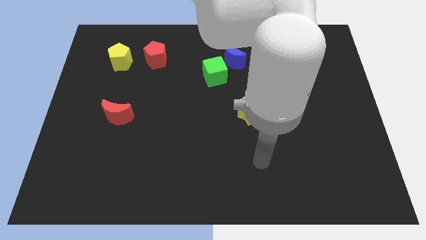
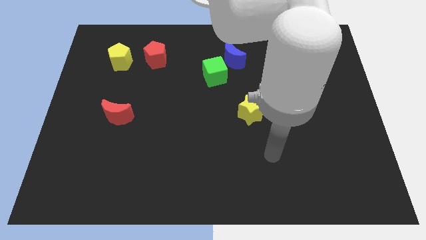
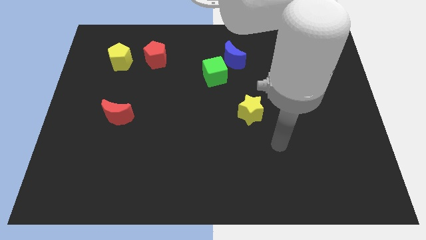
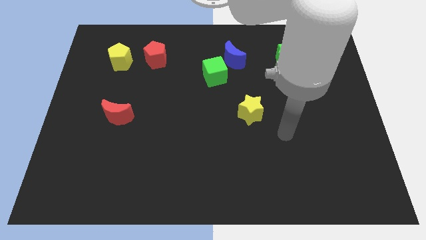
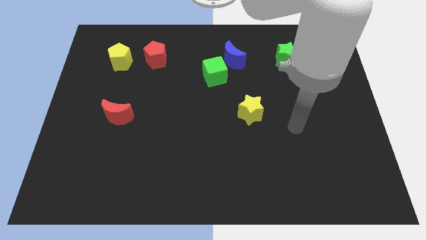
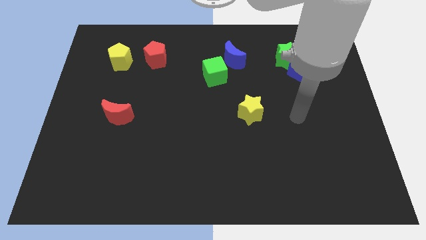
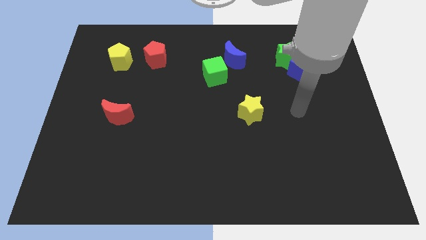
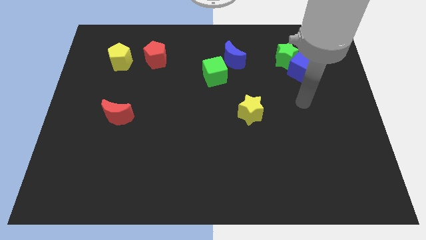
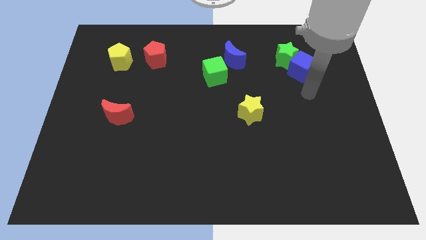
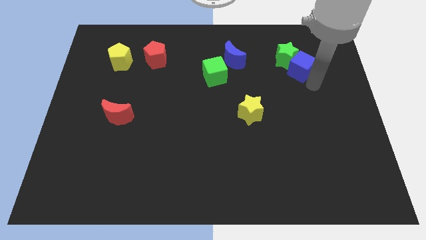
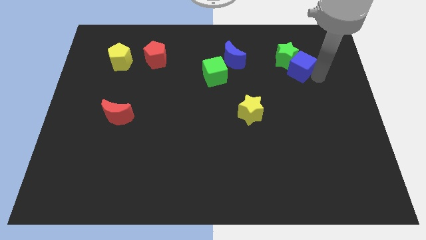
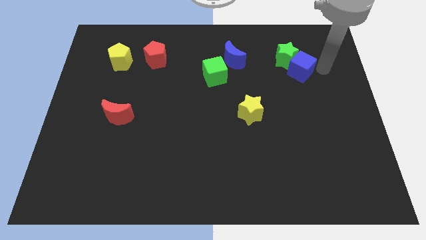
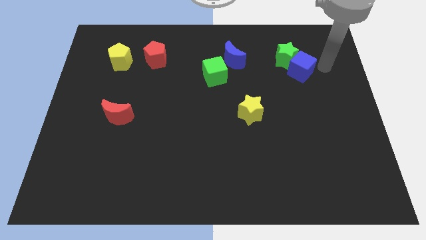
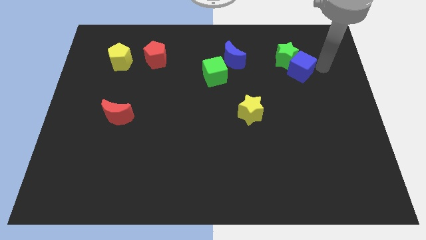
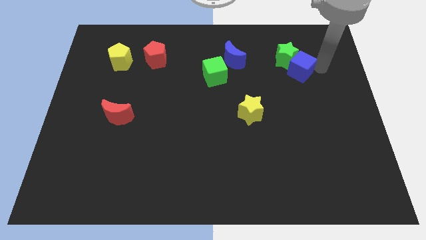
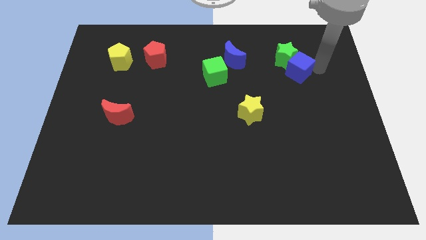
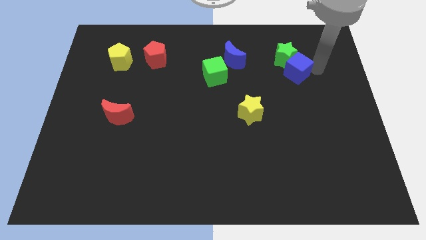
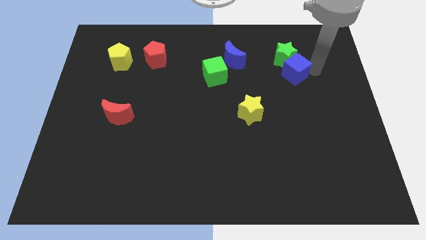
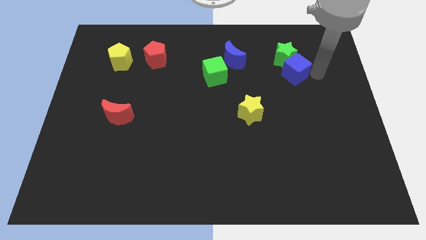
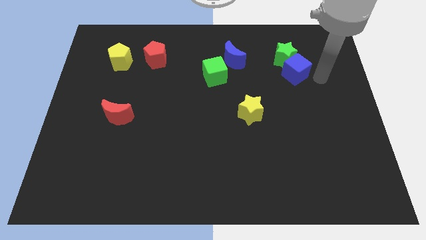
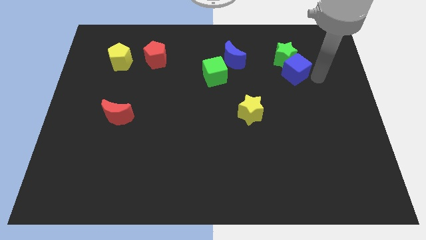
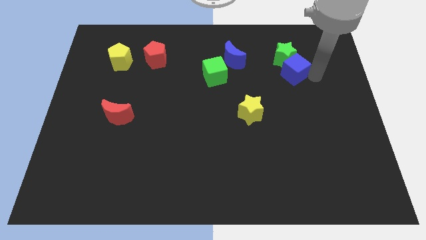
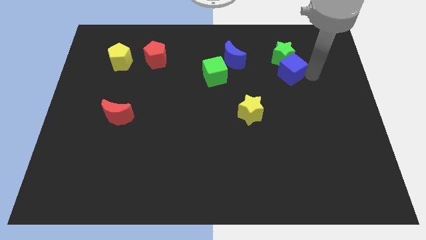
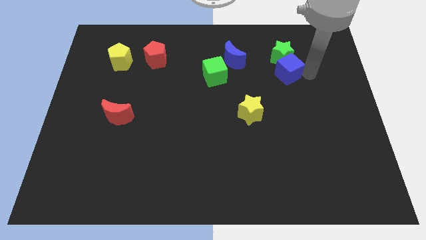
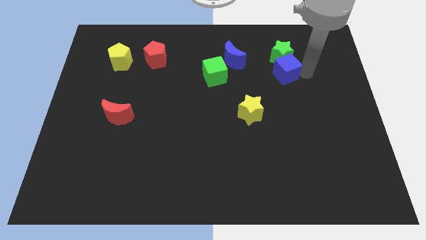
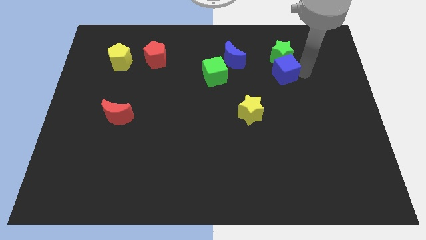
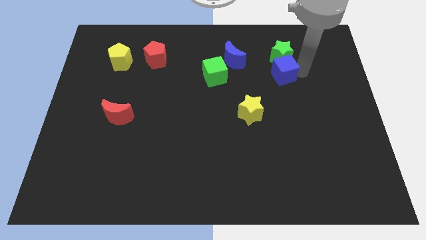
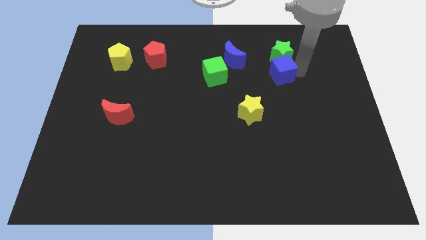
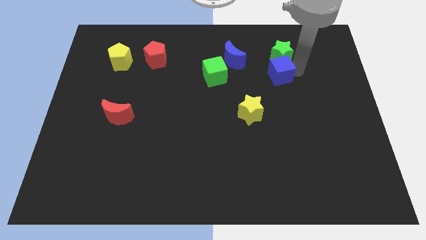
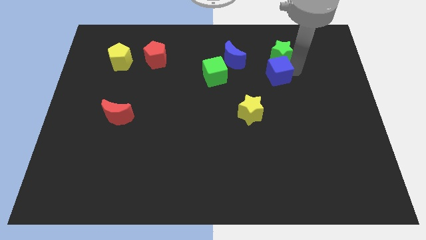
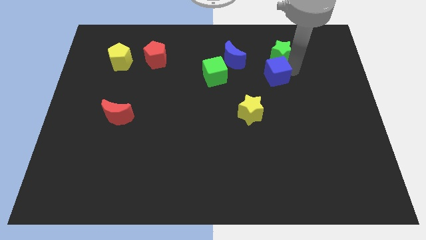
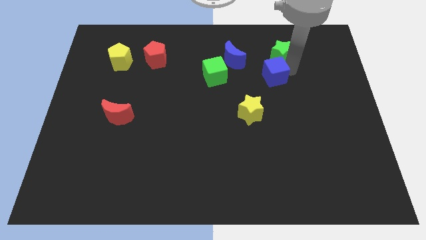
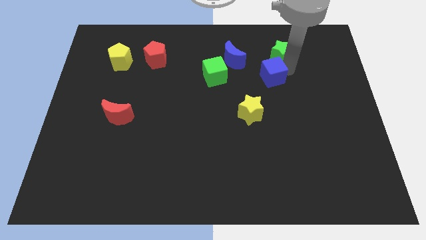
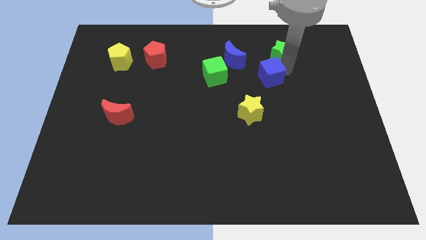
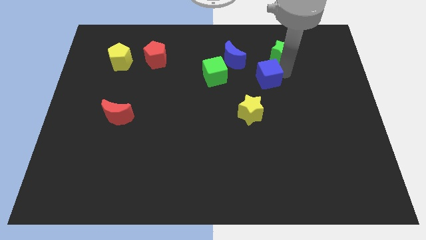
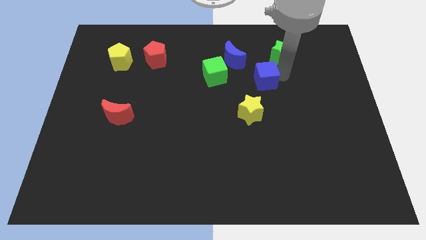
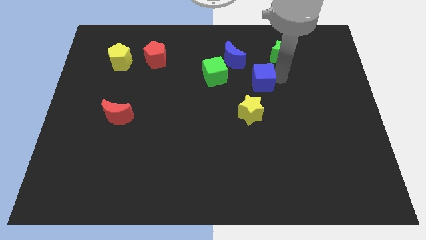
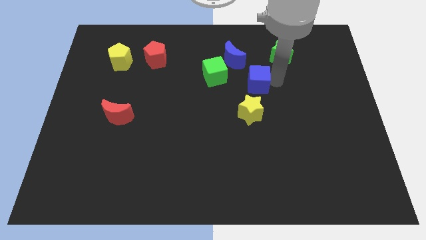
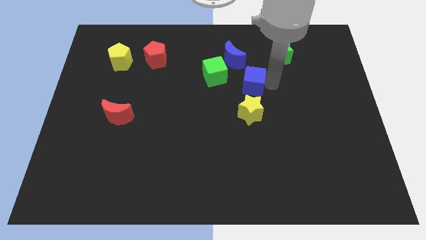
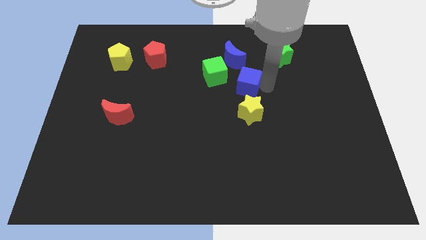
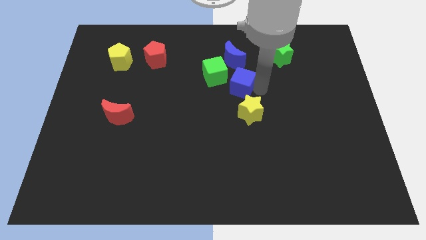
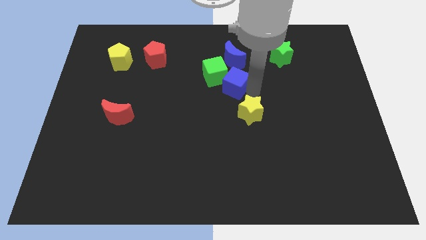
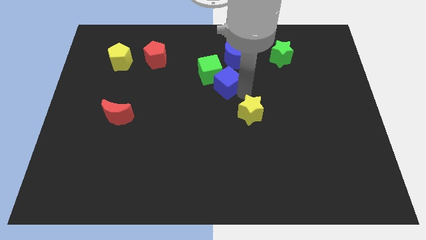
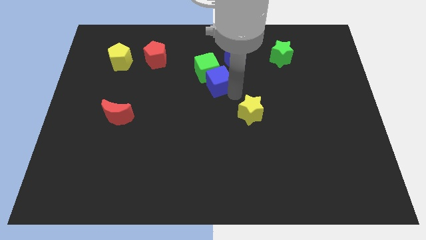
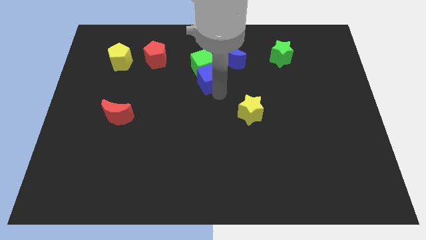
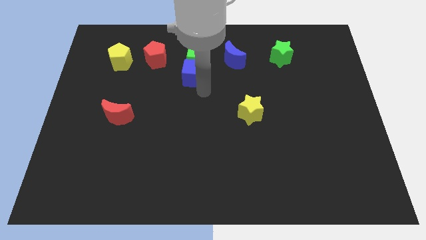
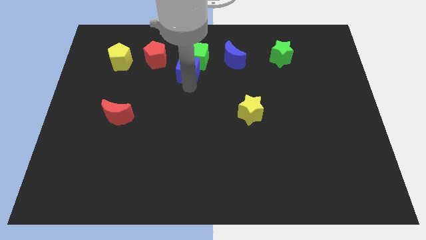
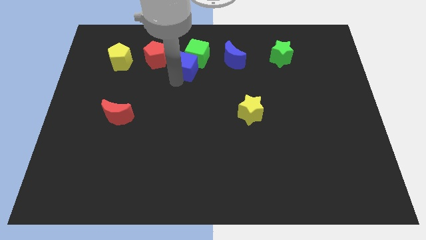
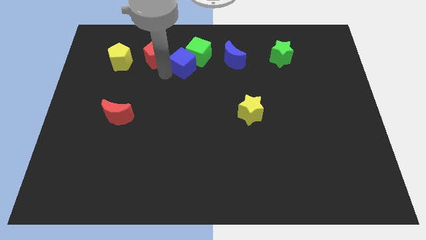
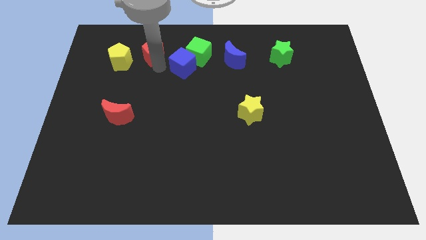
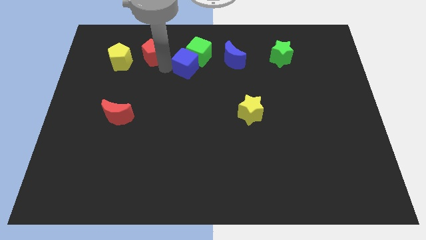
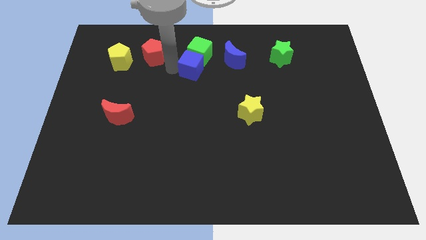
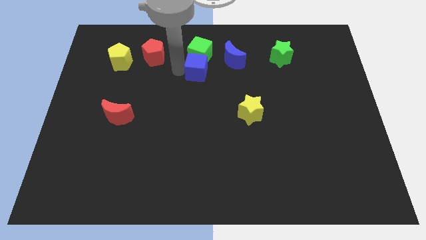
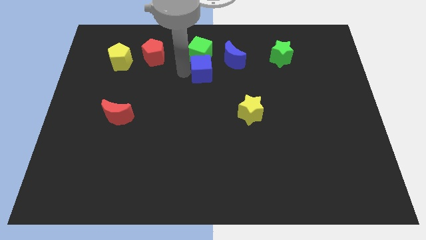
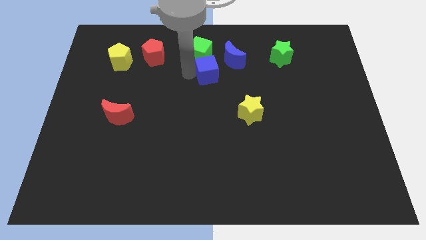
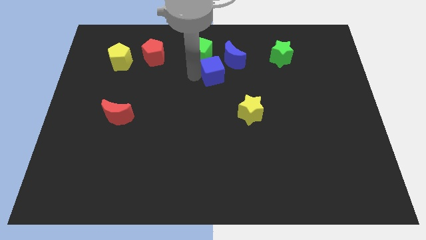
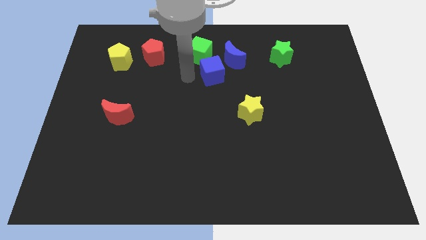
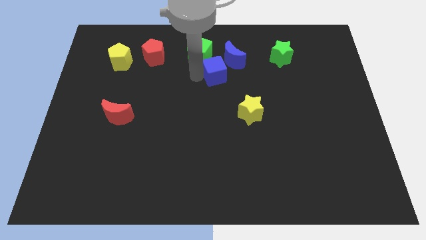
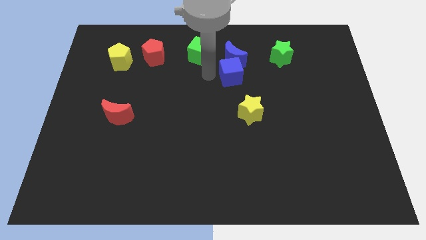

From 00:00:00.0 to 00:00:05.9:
slide the blue cube towards the blue moon

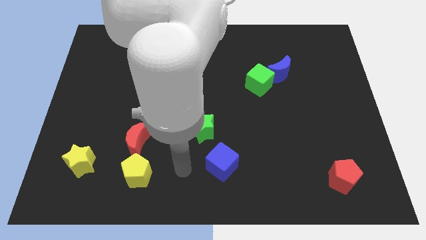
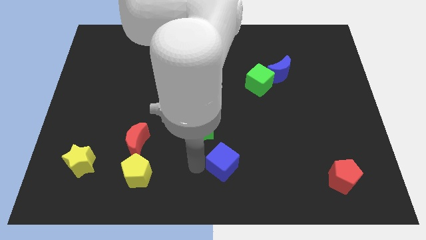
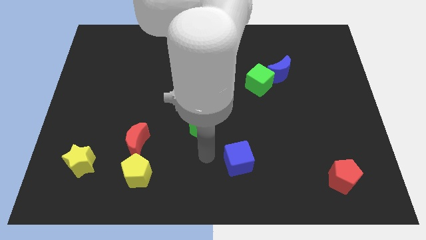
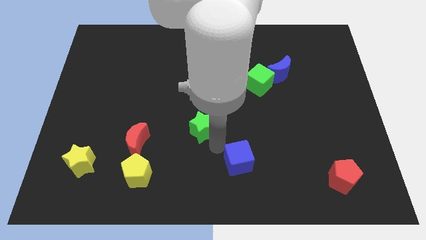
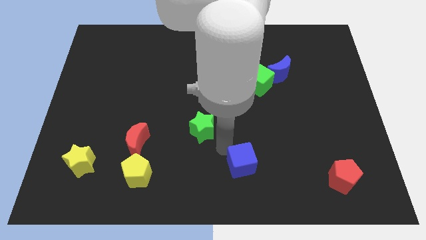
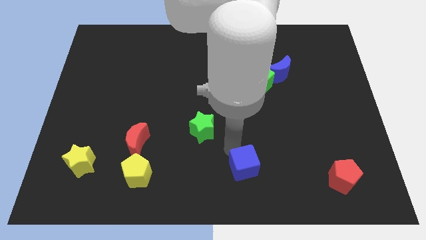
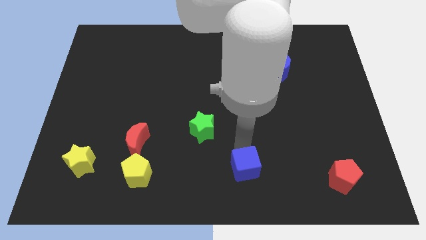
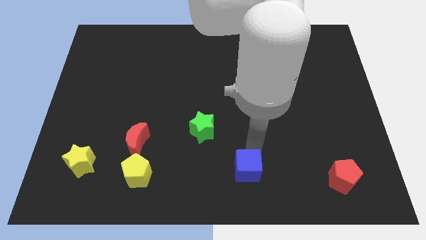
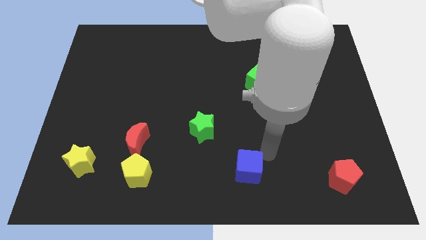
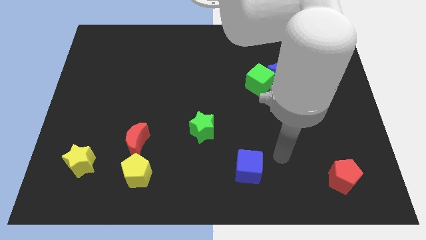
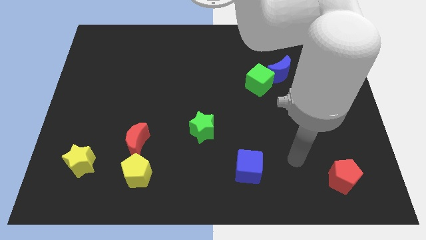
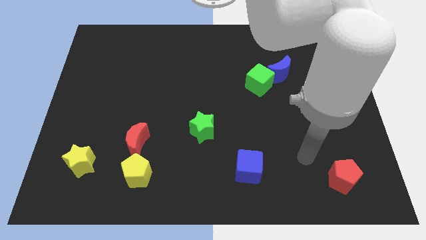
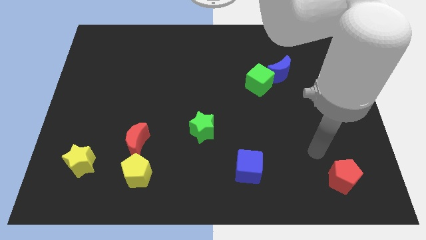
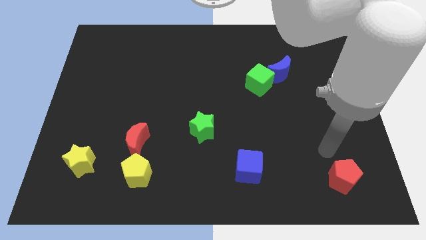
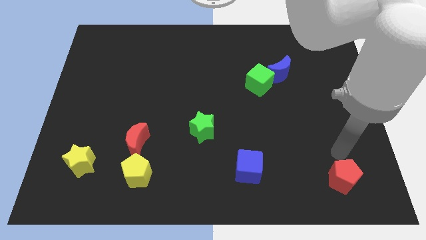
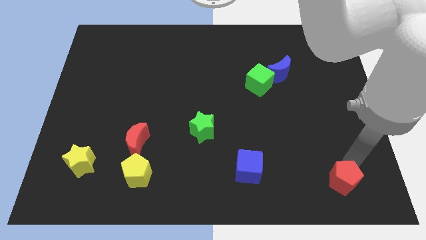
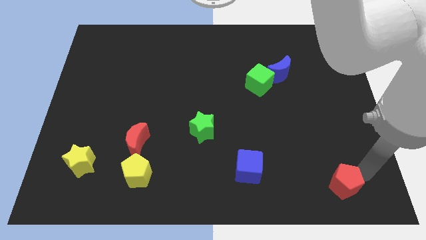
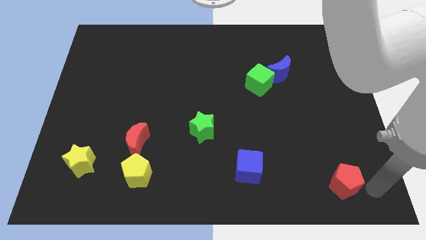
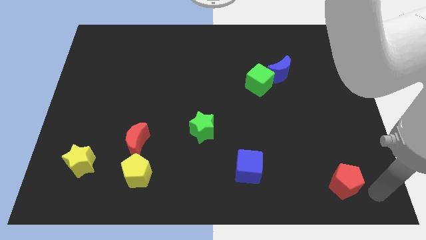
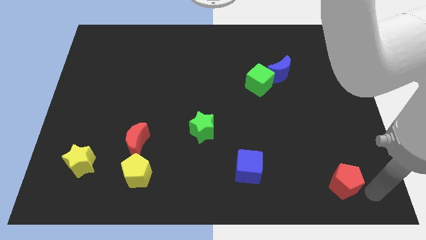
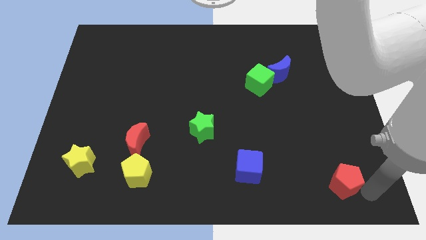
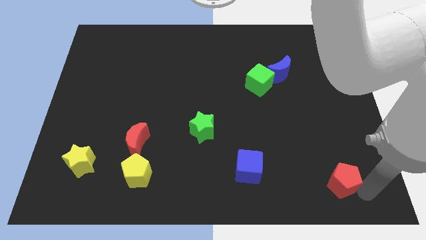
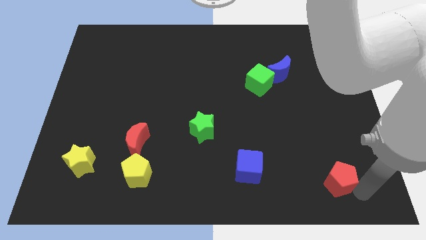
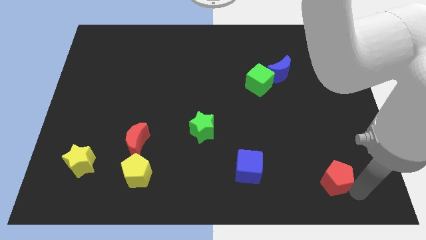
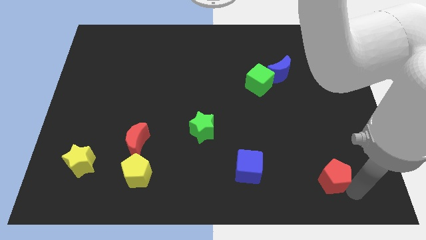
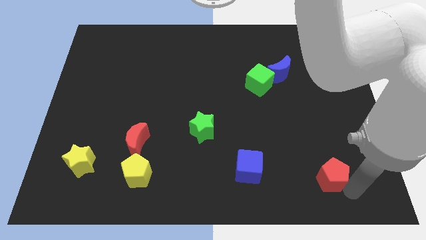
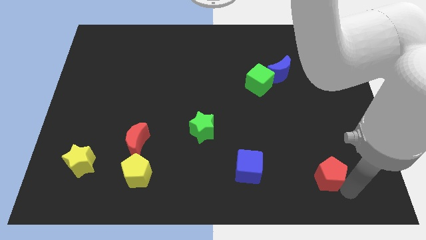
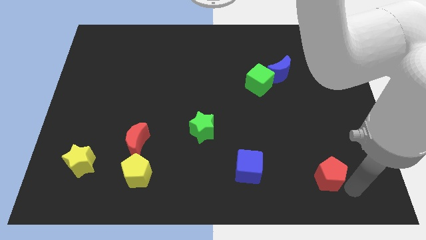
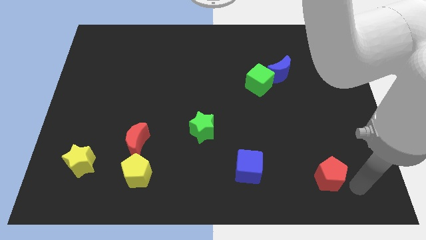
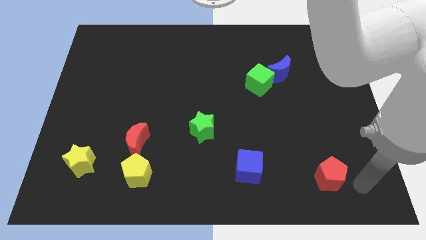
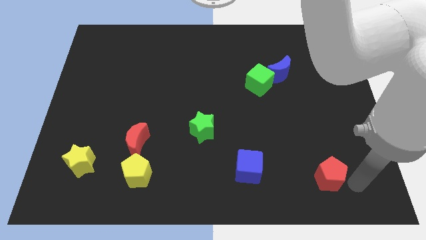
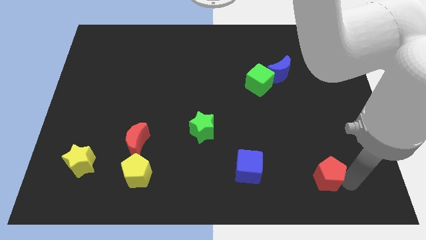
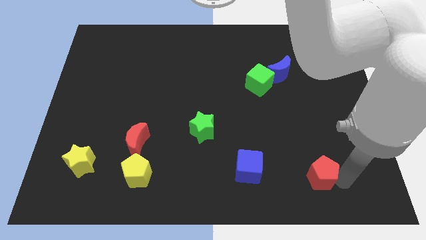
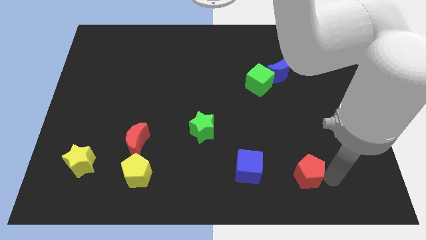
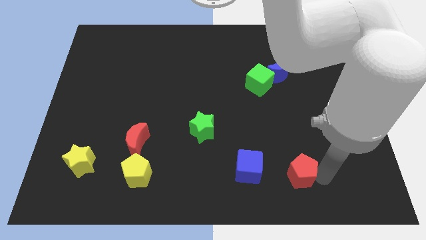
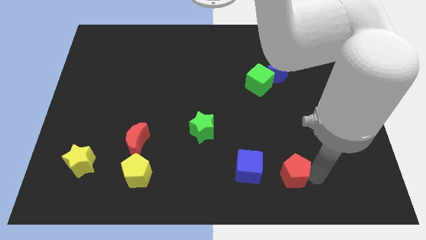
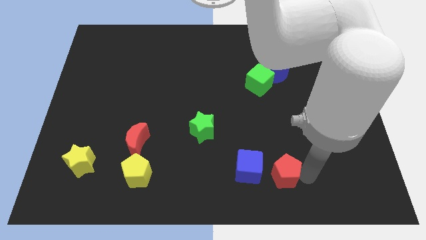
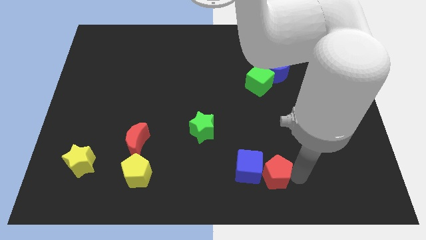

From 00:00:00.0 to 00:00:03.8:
move the red pentagon to the blue cube
